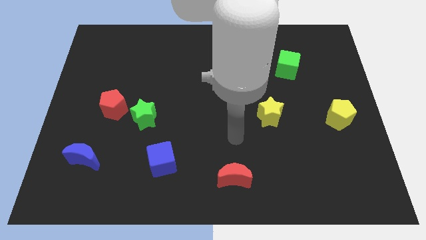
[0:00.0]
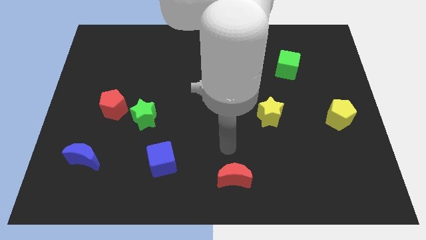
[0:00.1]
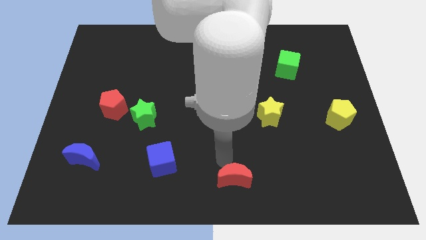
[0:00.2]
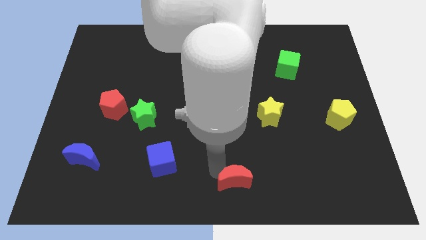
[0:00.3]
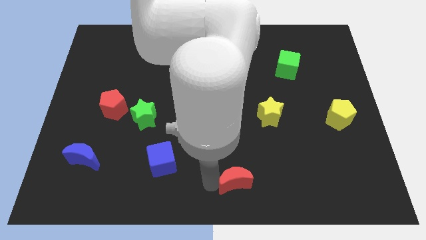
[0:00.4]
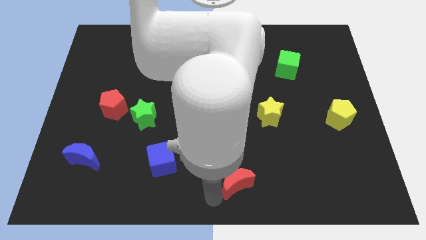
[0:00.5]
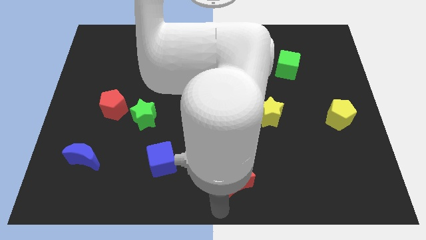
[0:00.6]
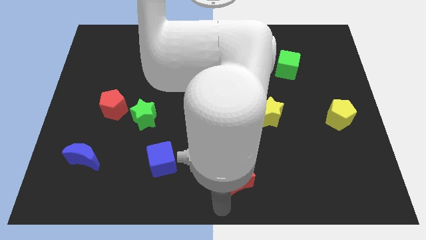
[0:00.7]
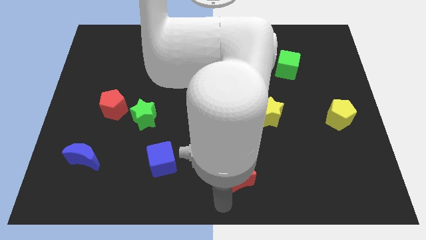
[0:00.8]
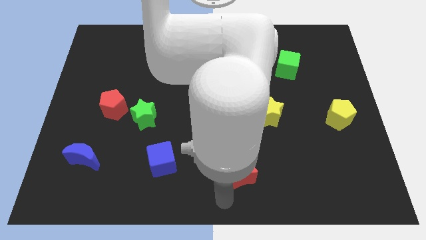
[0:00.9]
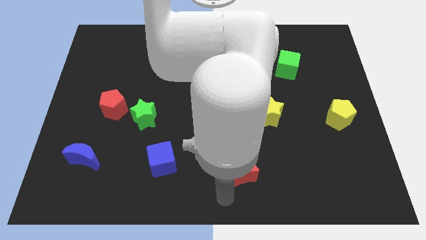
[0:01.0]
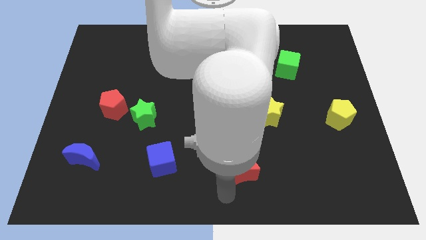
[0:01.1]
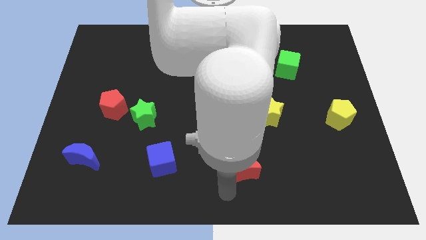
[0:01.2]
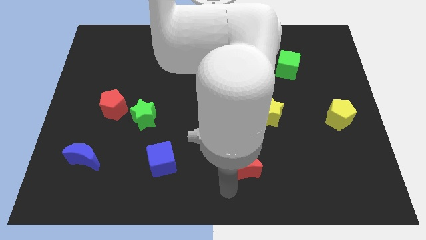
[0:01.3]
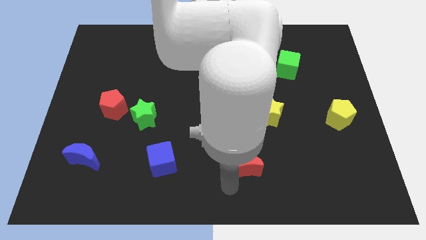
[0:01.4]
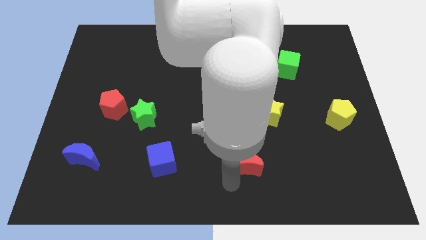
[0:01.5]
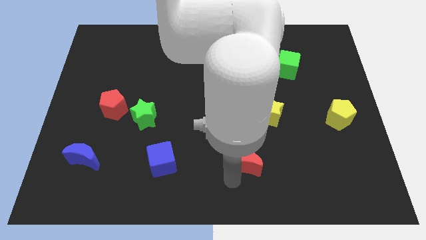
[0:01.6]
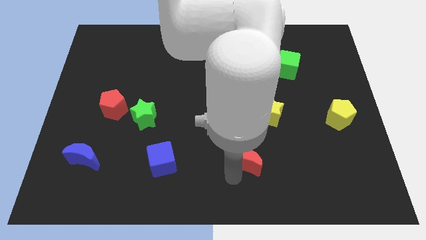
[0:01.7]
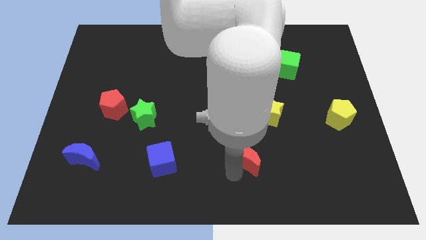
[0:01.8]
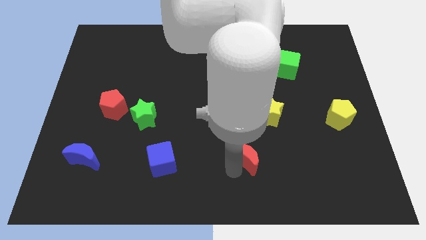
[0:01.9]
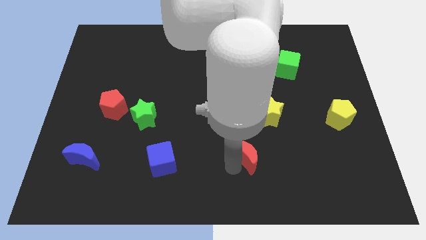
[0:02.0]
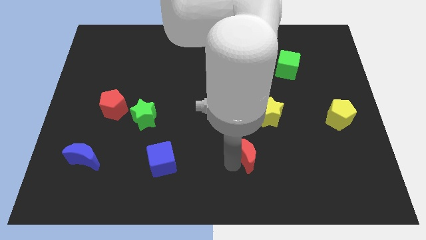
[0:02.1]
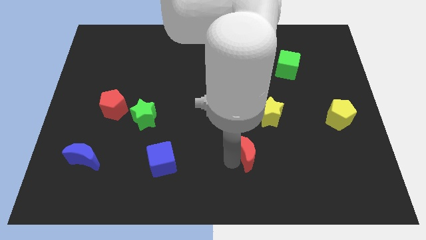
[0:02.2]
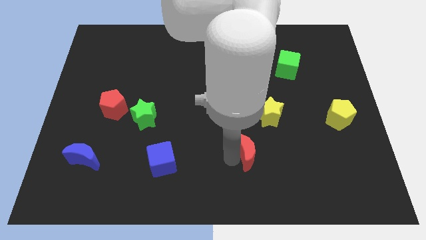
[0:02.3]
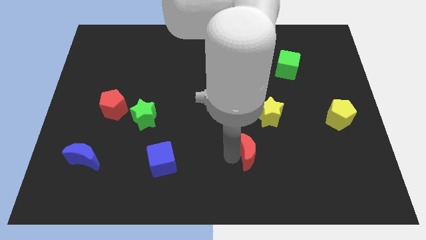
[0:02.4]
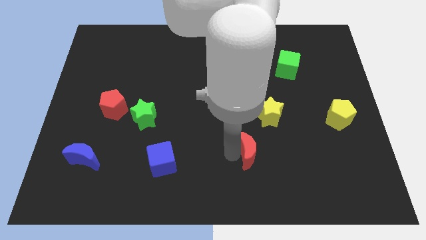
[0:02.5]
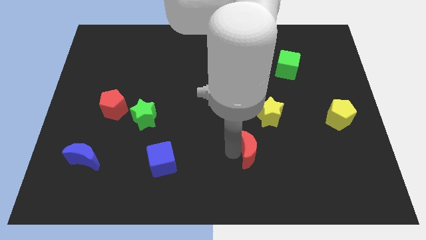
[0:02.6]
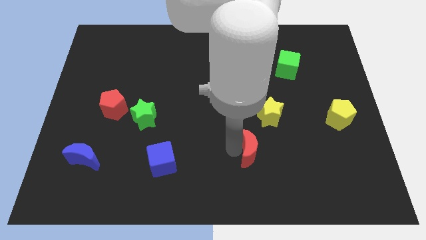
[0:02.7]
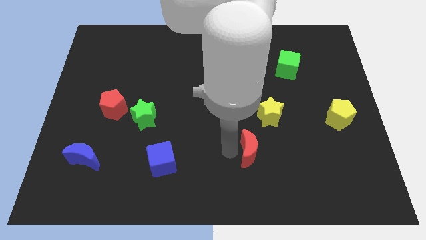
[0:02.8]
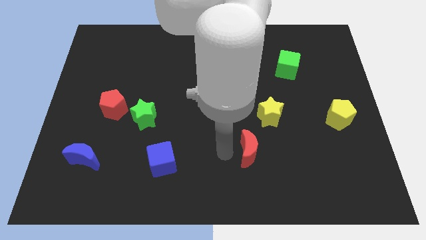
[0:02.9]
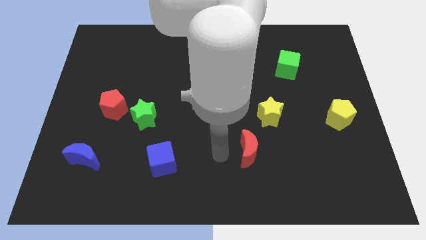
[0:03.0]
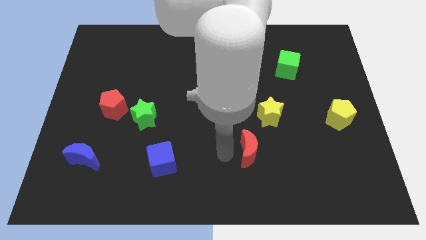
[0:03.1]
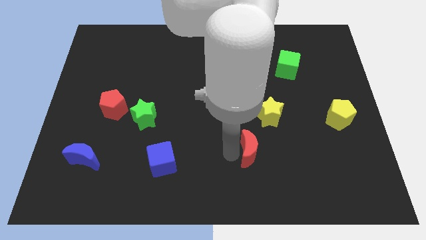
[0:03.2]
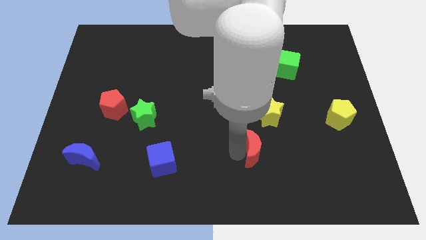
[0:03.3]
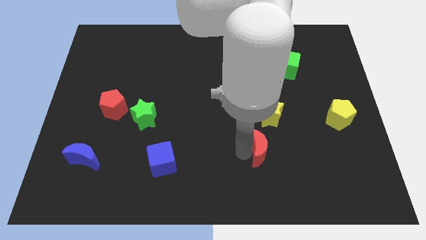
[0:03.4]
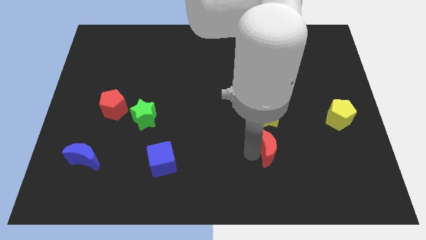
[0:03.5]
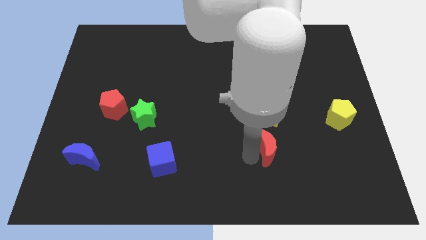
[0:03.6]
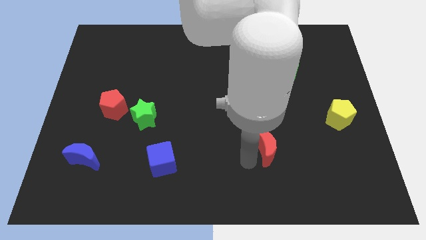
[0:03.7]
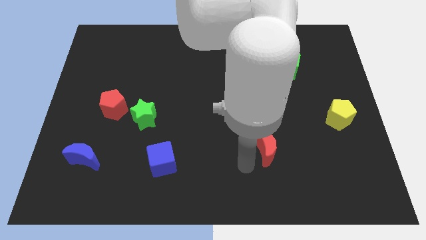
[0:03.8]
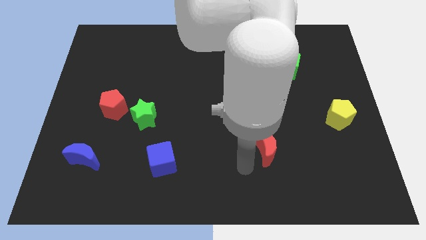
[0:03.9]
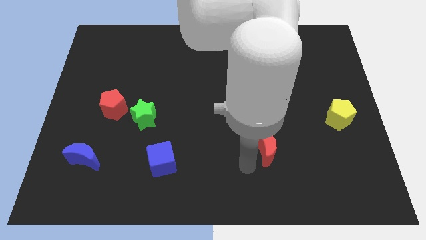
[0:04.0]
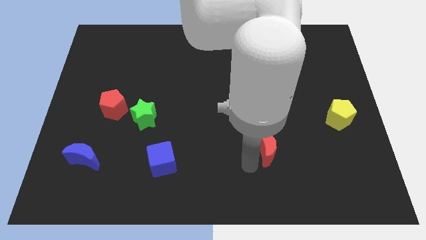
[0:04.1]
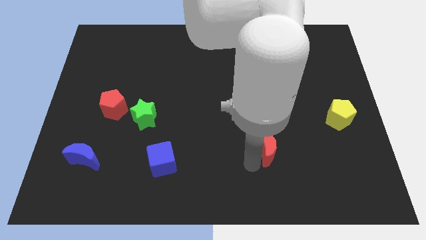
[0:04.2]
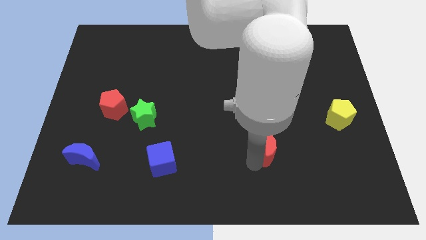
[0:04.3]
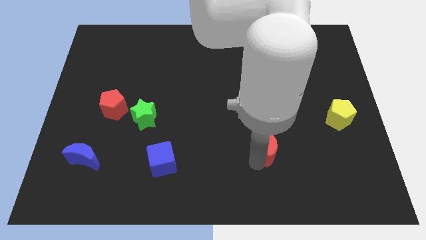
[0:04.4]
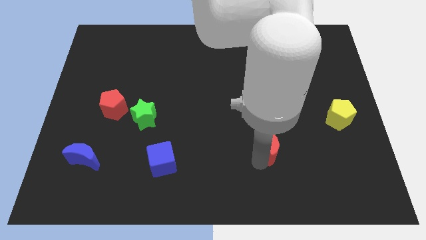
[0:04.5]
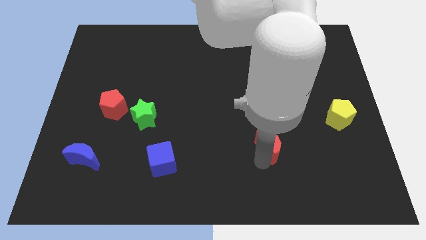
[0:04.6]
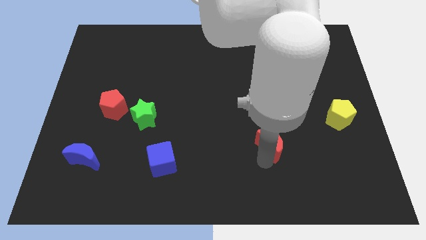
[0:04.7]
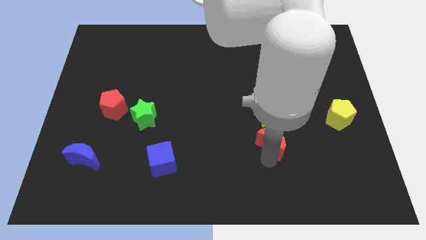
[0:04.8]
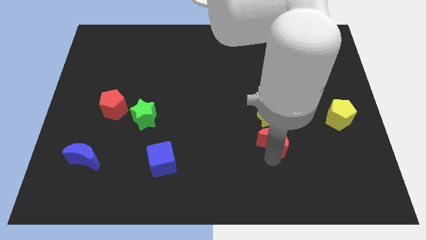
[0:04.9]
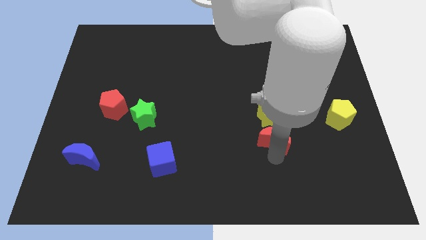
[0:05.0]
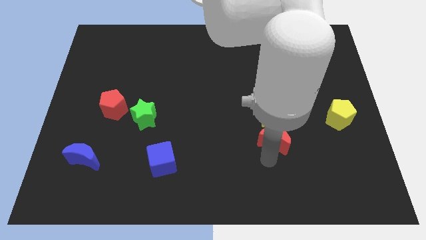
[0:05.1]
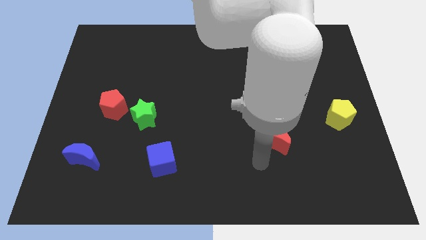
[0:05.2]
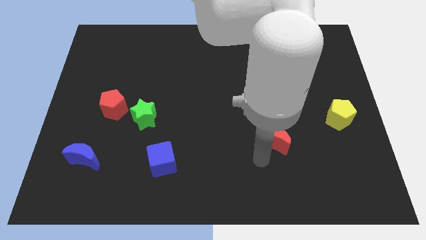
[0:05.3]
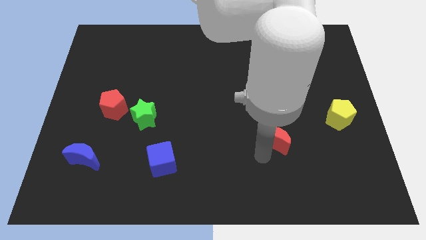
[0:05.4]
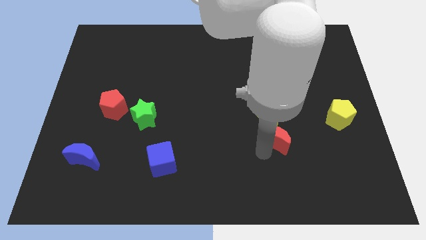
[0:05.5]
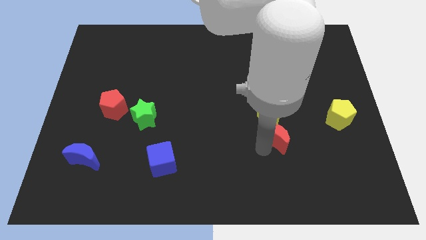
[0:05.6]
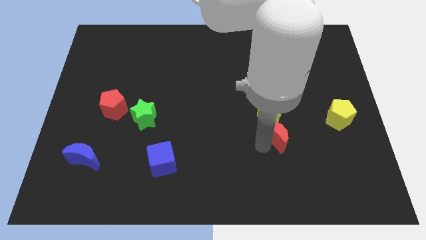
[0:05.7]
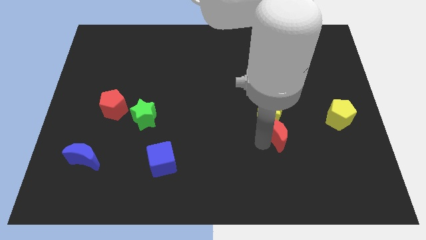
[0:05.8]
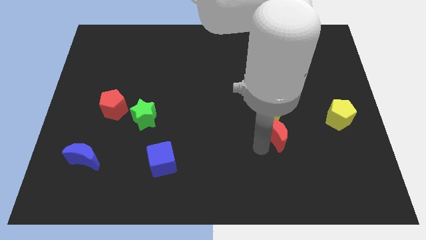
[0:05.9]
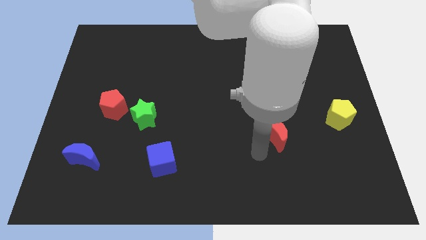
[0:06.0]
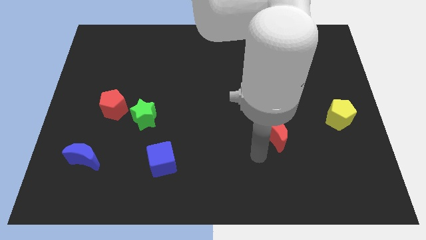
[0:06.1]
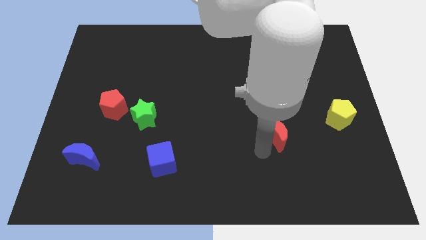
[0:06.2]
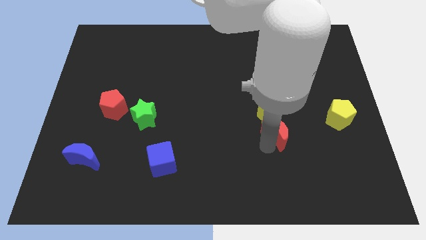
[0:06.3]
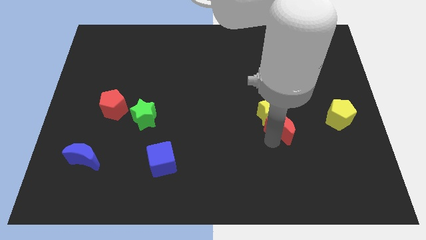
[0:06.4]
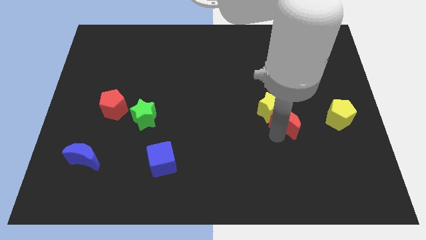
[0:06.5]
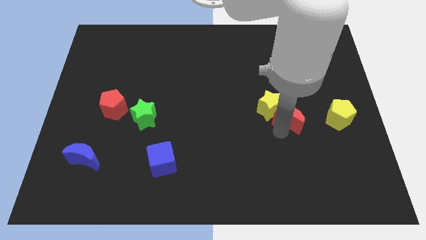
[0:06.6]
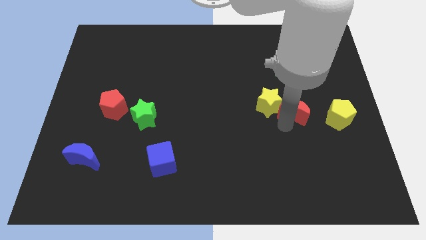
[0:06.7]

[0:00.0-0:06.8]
move the red moon up and right

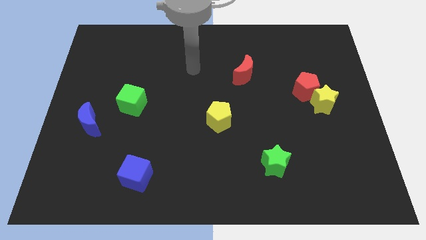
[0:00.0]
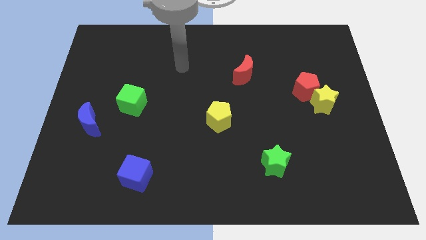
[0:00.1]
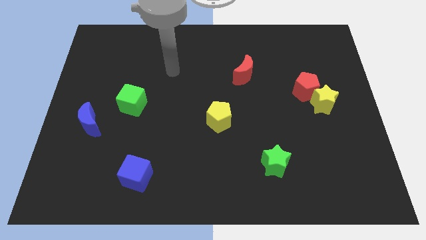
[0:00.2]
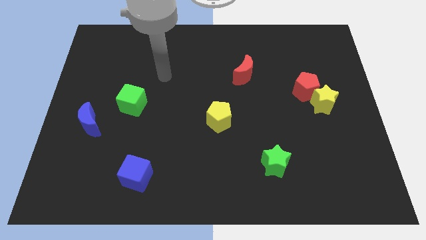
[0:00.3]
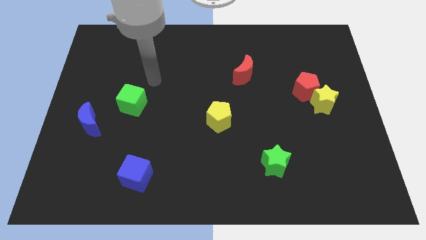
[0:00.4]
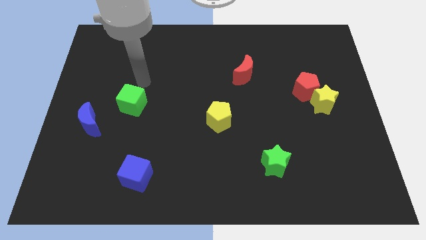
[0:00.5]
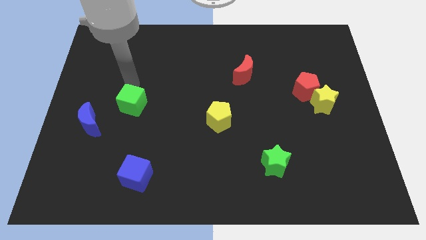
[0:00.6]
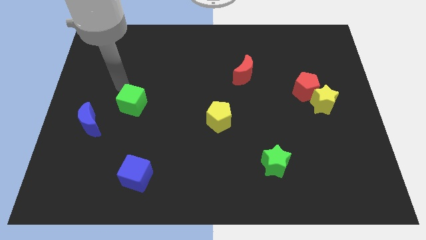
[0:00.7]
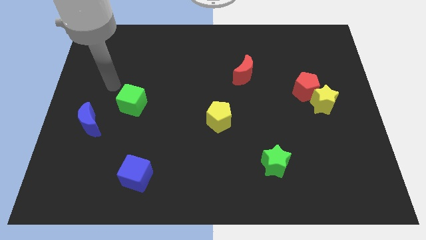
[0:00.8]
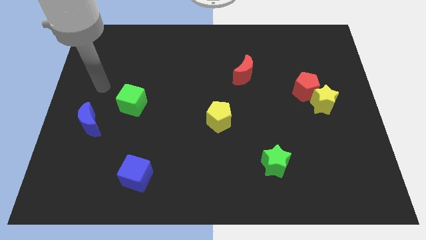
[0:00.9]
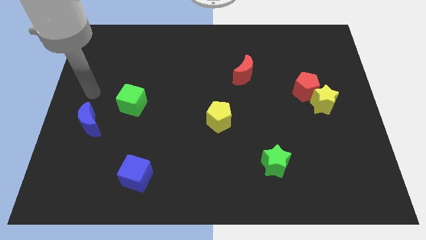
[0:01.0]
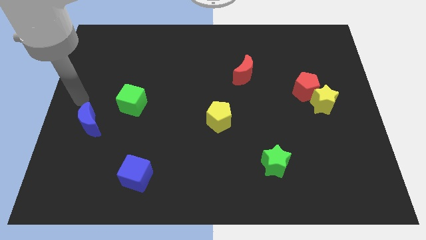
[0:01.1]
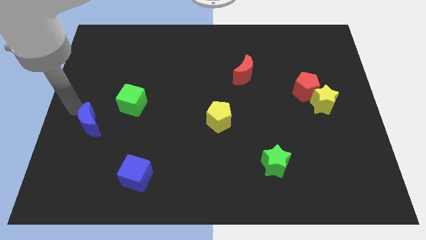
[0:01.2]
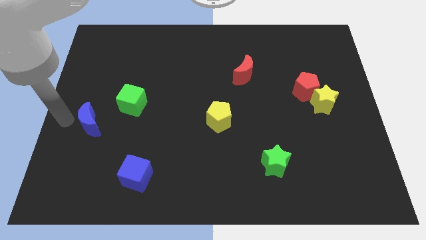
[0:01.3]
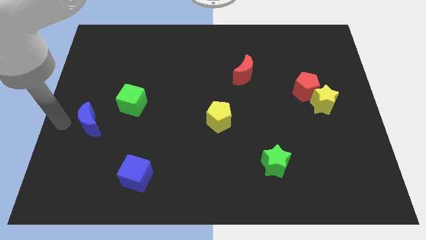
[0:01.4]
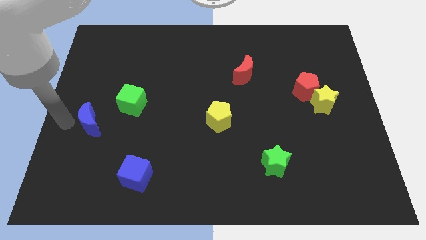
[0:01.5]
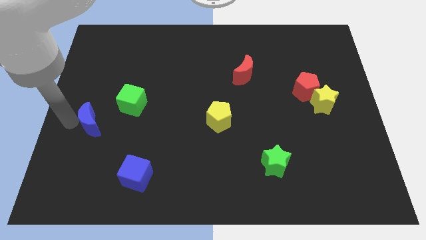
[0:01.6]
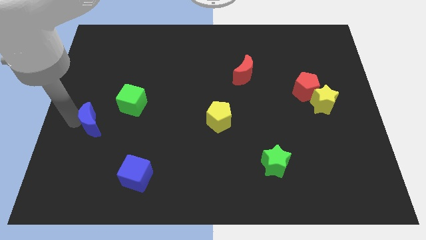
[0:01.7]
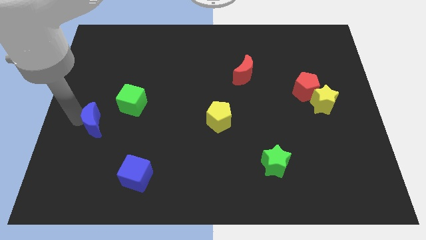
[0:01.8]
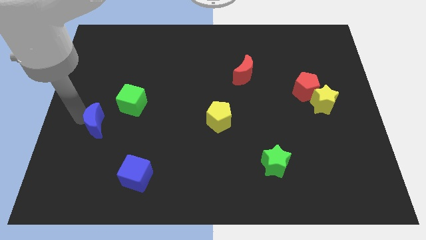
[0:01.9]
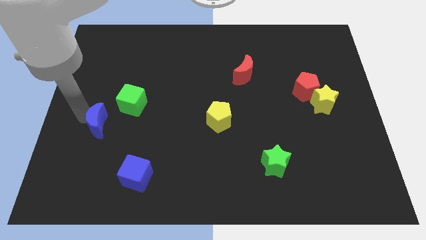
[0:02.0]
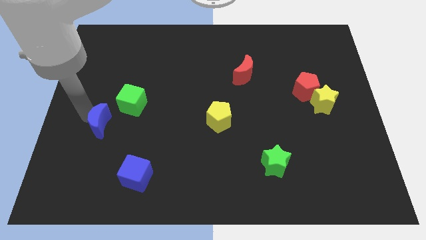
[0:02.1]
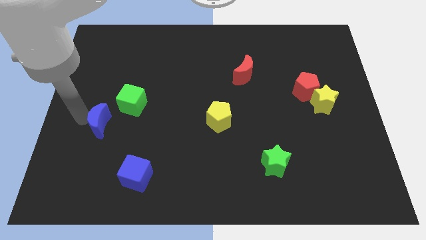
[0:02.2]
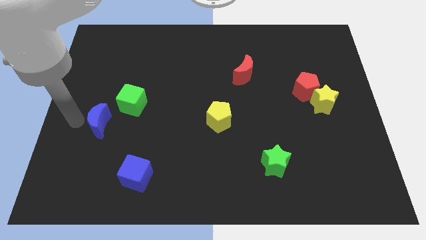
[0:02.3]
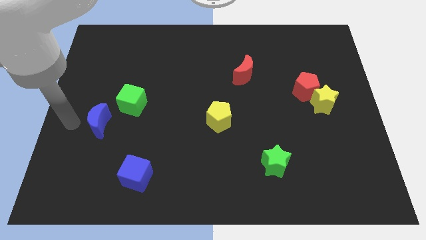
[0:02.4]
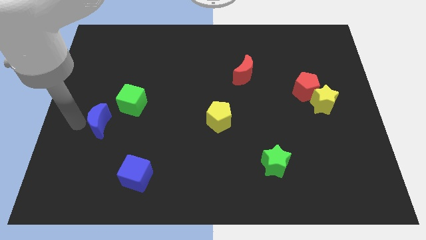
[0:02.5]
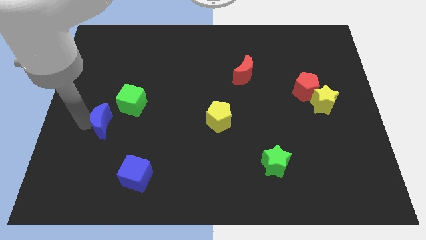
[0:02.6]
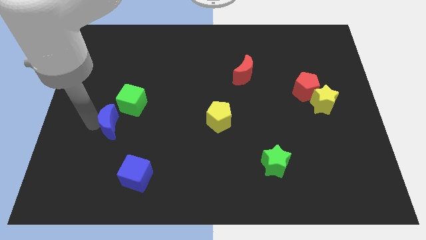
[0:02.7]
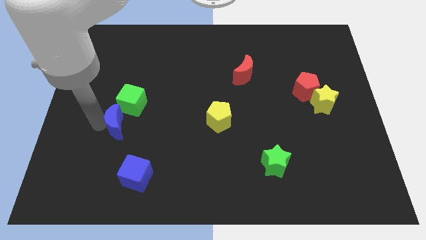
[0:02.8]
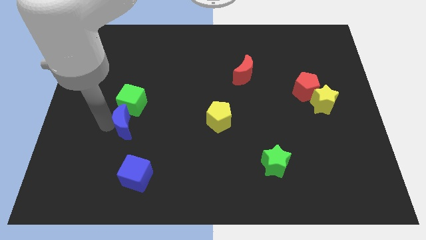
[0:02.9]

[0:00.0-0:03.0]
slide the blue moon right a bit
